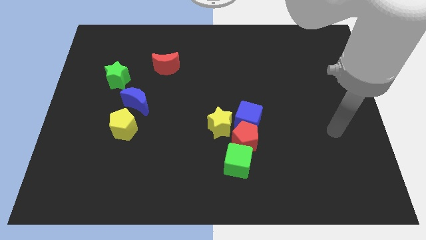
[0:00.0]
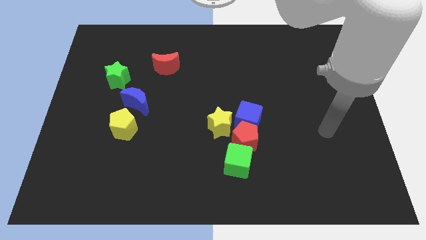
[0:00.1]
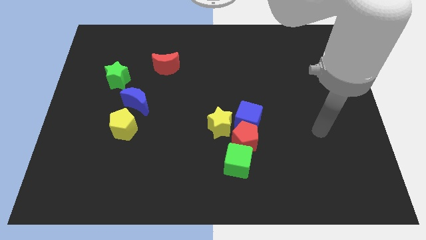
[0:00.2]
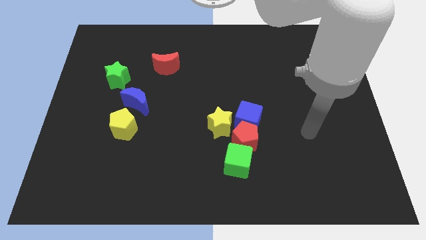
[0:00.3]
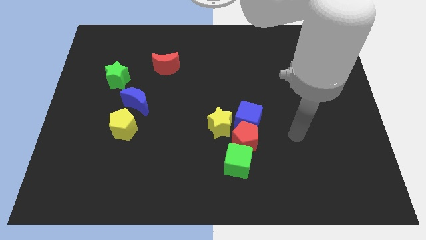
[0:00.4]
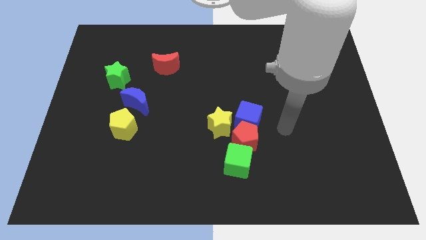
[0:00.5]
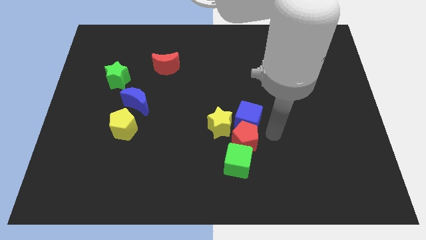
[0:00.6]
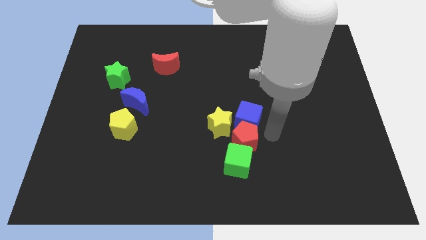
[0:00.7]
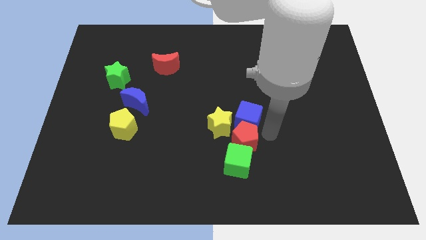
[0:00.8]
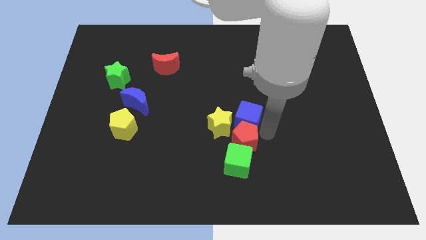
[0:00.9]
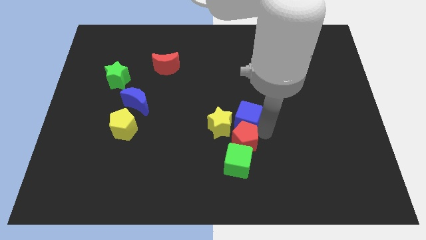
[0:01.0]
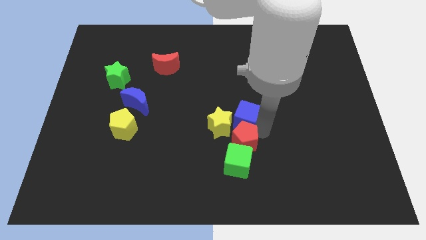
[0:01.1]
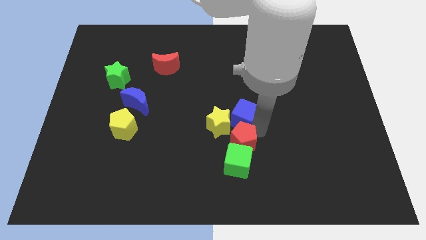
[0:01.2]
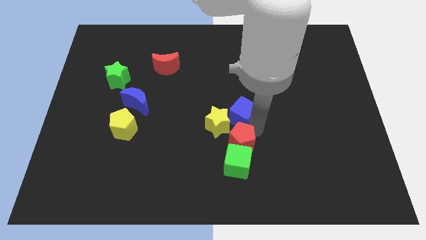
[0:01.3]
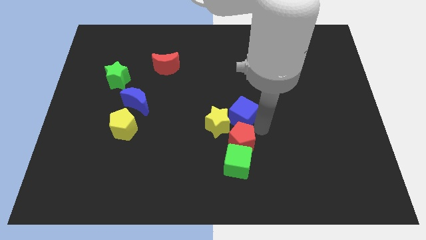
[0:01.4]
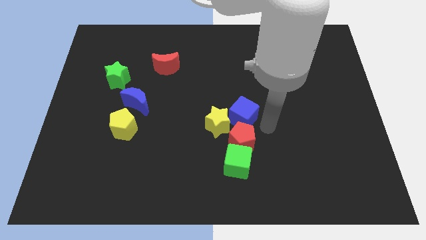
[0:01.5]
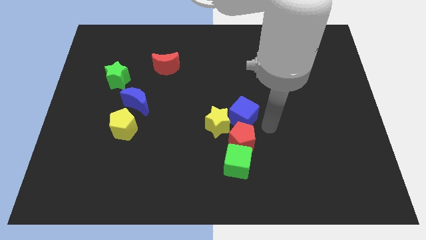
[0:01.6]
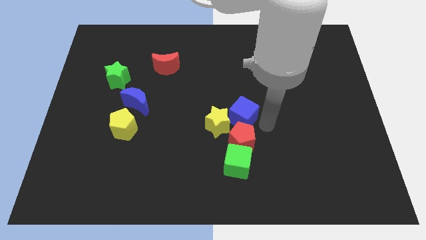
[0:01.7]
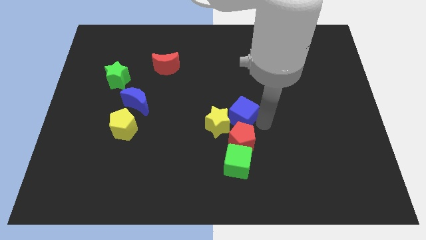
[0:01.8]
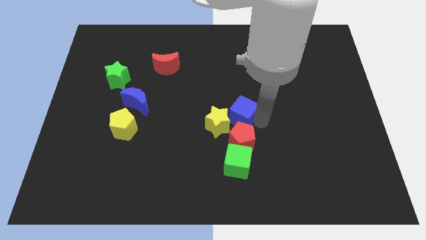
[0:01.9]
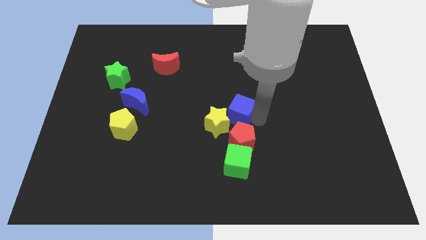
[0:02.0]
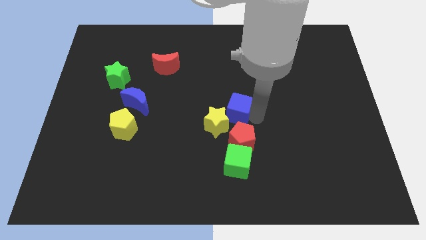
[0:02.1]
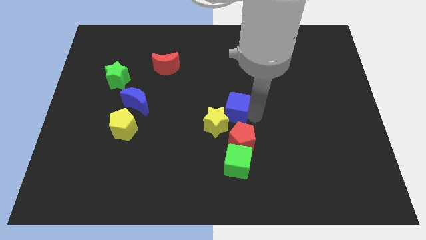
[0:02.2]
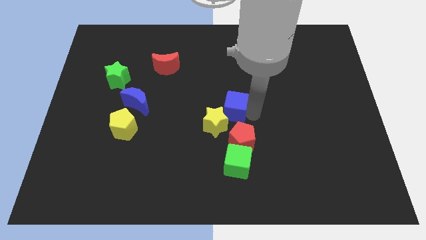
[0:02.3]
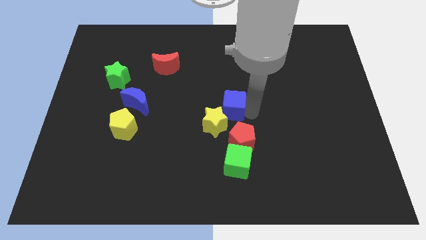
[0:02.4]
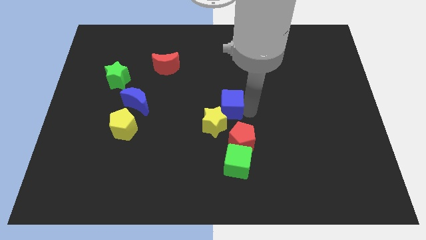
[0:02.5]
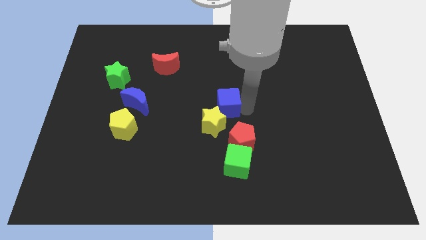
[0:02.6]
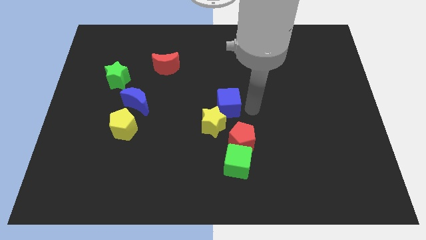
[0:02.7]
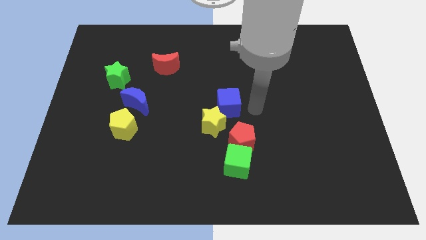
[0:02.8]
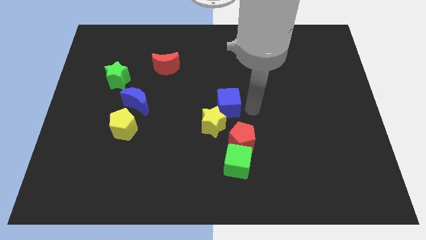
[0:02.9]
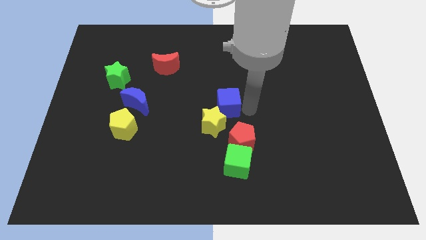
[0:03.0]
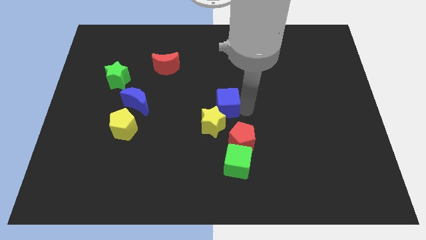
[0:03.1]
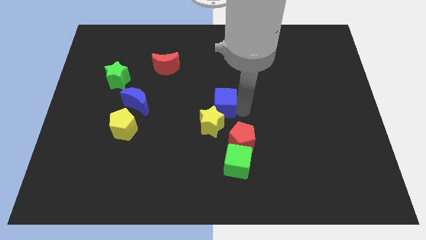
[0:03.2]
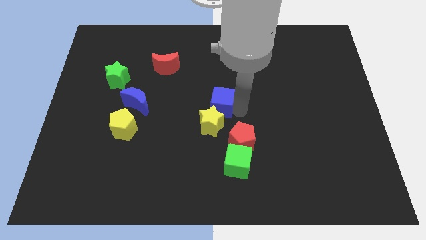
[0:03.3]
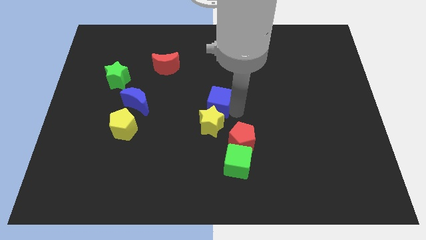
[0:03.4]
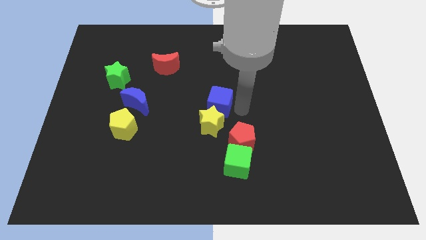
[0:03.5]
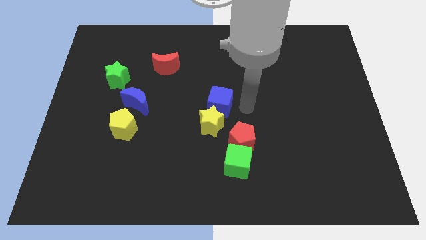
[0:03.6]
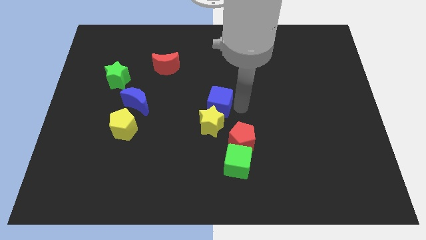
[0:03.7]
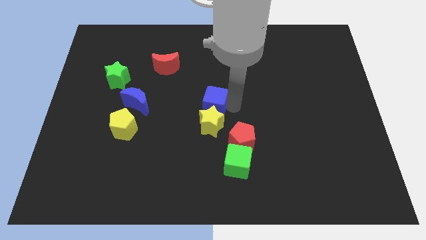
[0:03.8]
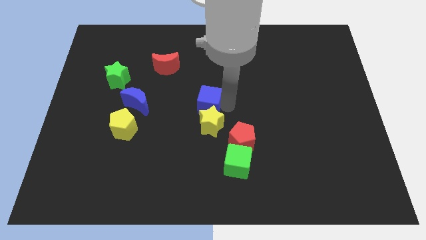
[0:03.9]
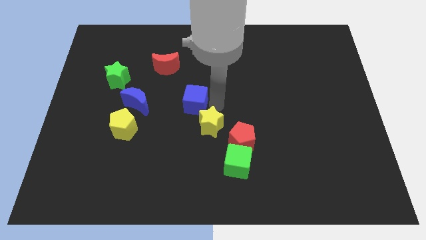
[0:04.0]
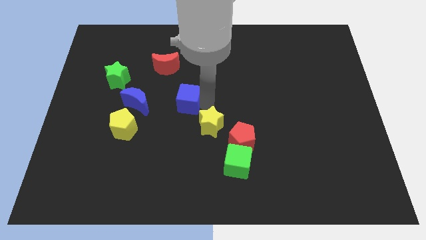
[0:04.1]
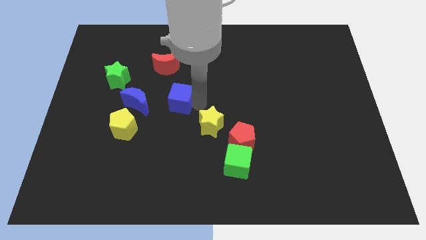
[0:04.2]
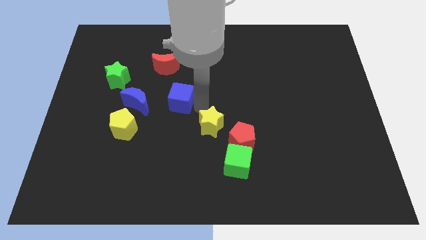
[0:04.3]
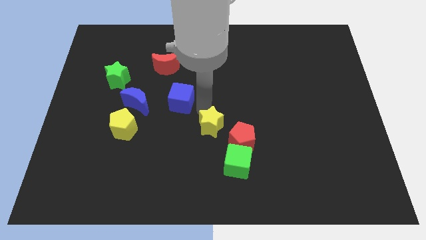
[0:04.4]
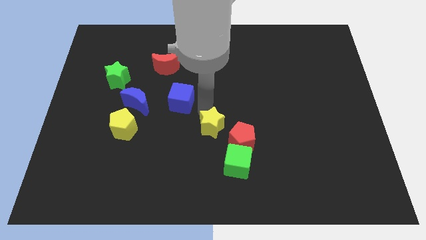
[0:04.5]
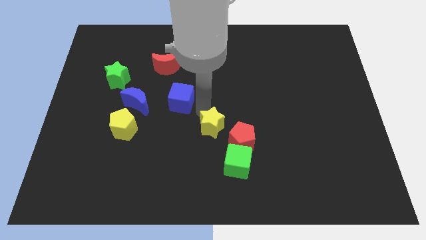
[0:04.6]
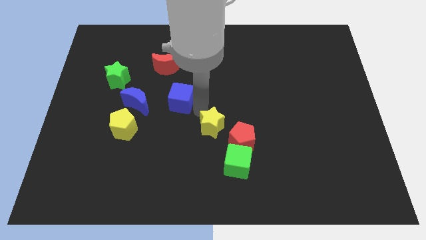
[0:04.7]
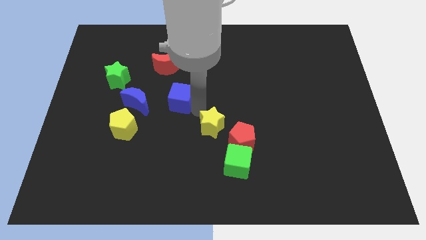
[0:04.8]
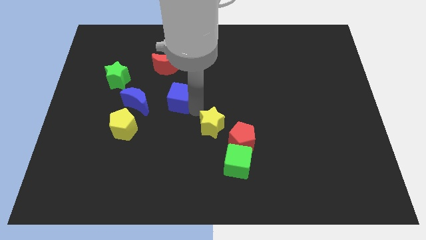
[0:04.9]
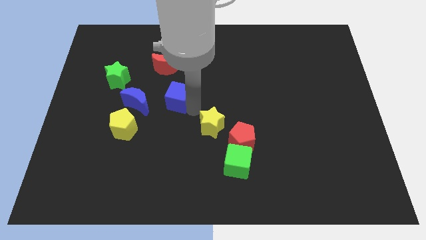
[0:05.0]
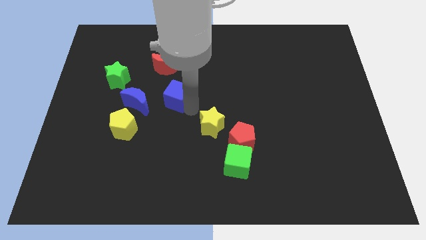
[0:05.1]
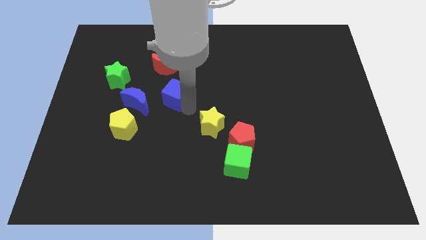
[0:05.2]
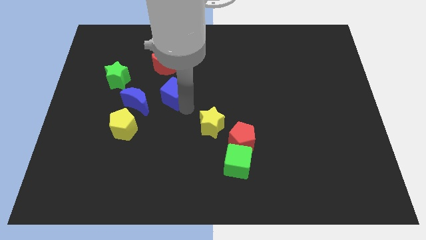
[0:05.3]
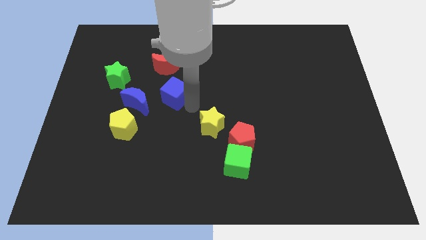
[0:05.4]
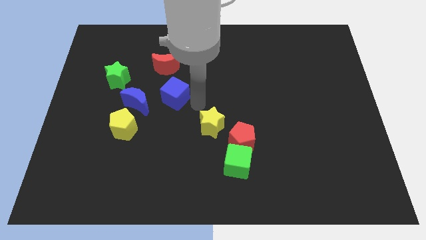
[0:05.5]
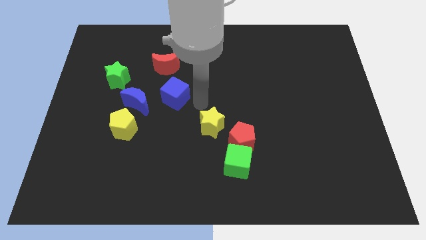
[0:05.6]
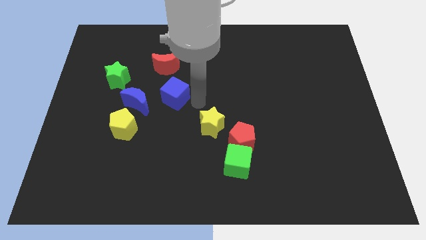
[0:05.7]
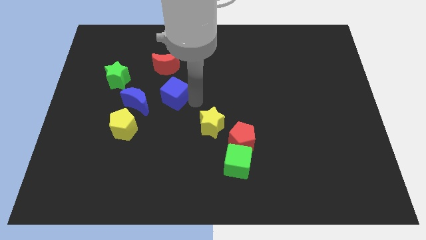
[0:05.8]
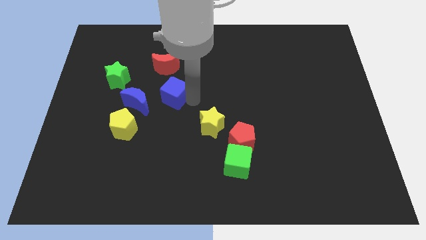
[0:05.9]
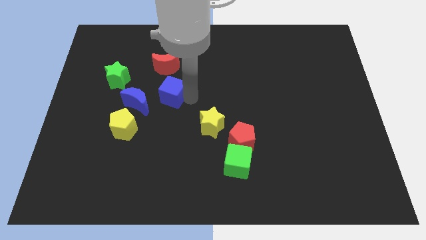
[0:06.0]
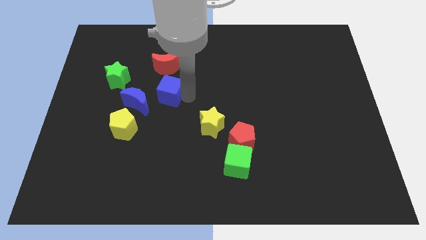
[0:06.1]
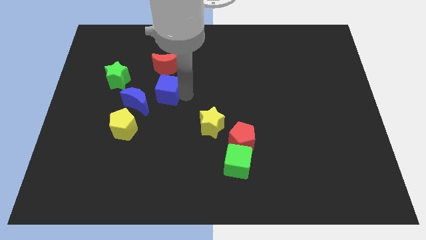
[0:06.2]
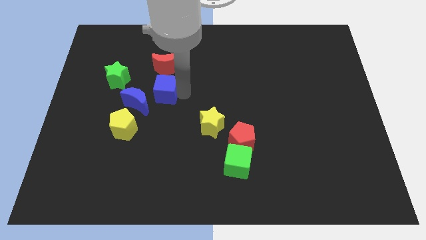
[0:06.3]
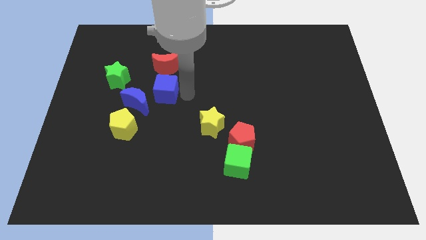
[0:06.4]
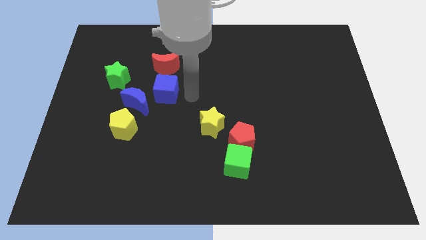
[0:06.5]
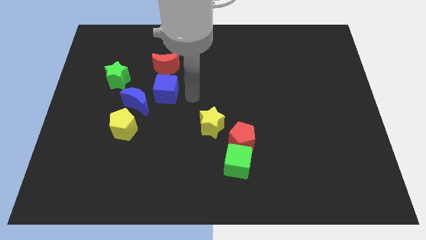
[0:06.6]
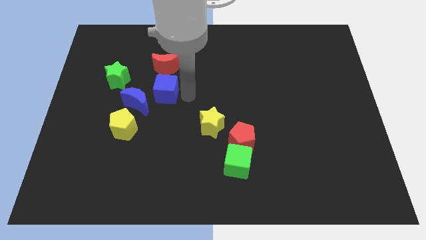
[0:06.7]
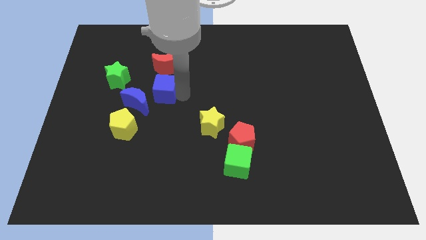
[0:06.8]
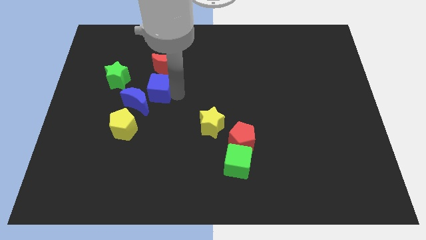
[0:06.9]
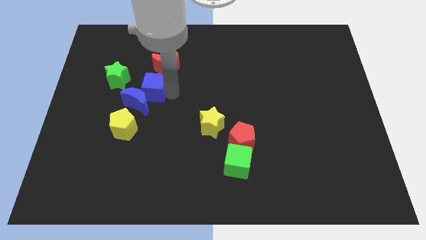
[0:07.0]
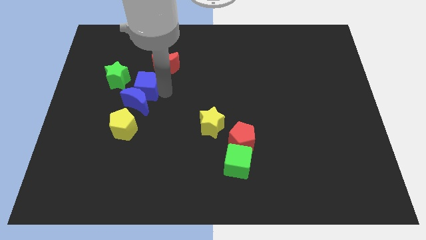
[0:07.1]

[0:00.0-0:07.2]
move the blue cube left

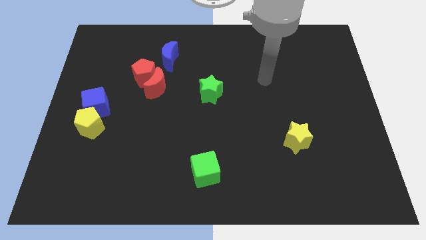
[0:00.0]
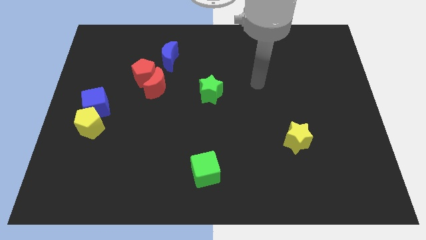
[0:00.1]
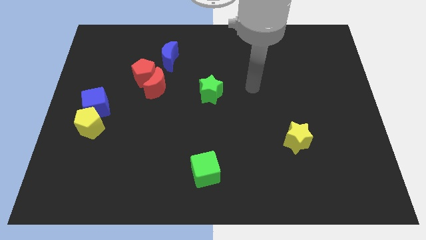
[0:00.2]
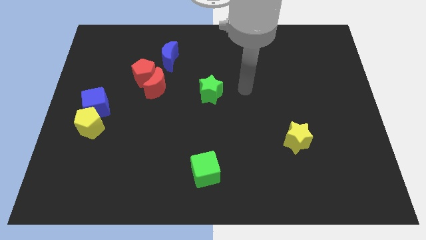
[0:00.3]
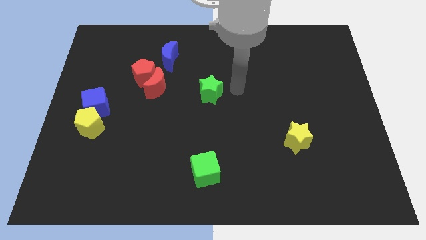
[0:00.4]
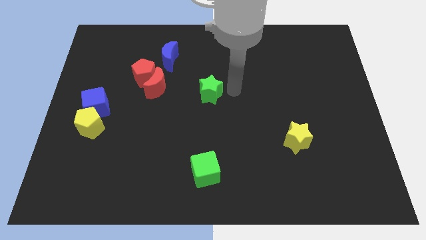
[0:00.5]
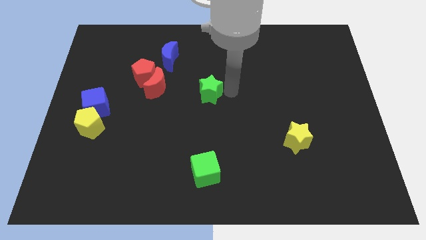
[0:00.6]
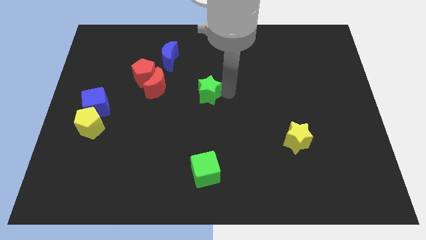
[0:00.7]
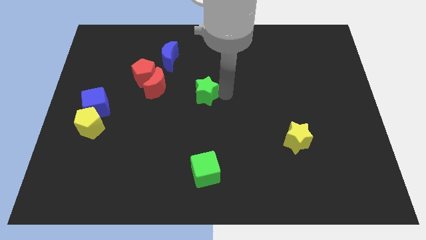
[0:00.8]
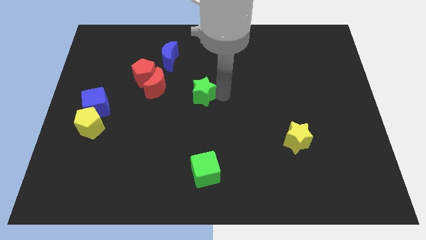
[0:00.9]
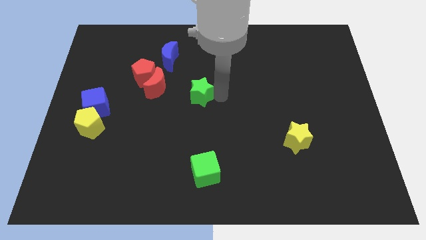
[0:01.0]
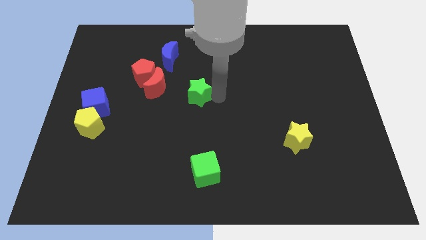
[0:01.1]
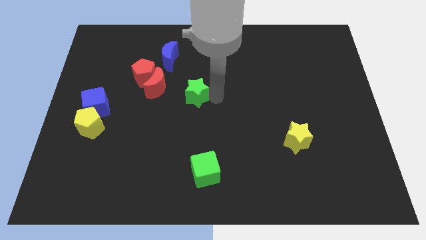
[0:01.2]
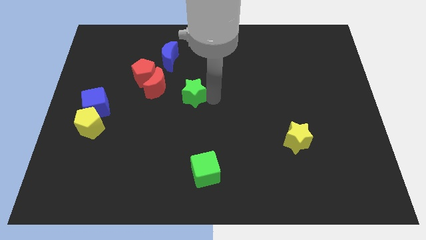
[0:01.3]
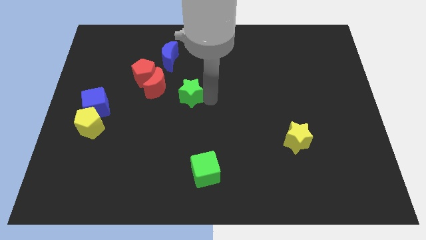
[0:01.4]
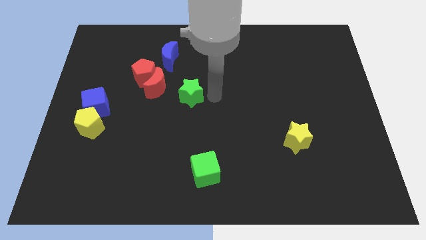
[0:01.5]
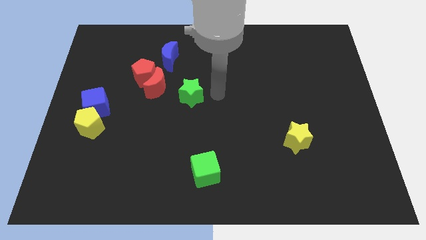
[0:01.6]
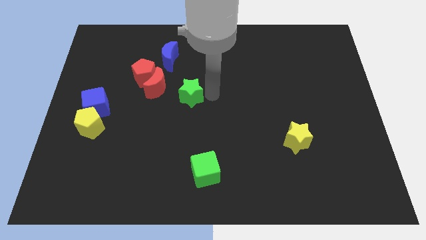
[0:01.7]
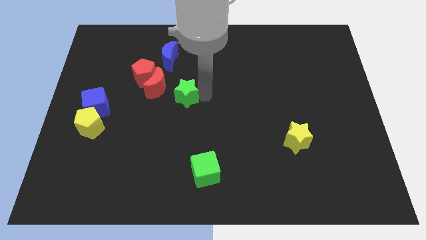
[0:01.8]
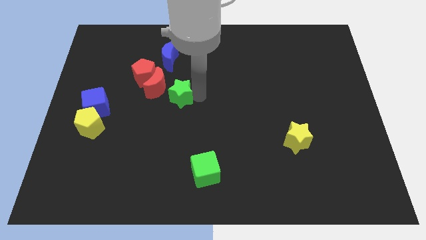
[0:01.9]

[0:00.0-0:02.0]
slide the green star a little left
